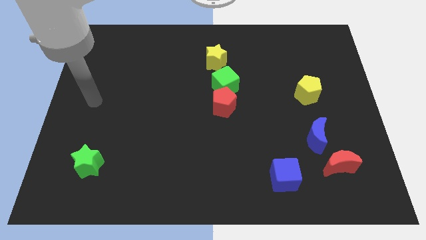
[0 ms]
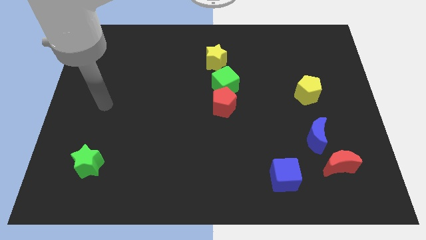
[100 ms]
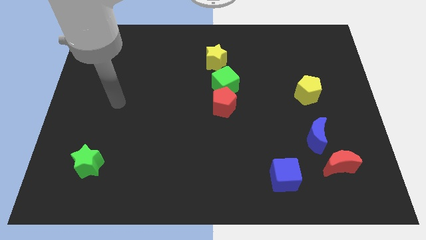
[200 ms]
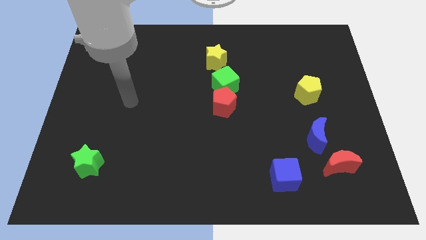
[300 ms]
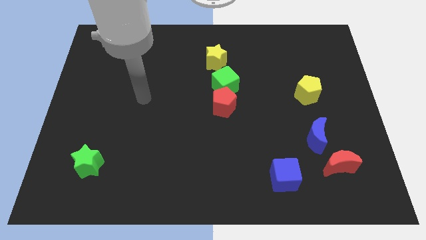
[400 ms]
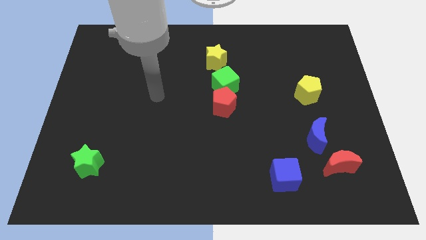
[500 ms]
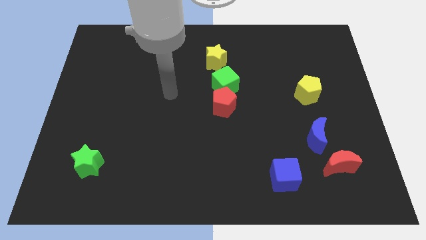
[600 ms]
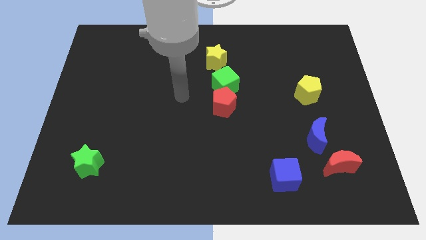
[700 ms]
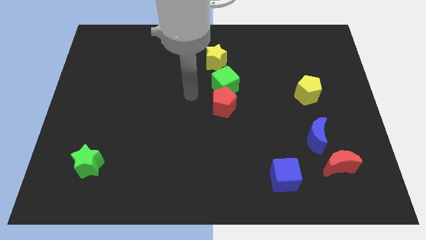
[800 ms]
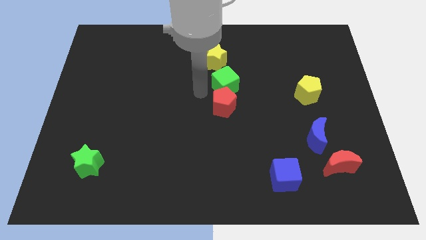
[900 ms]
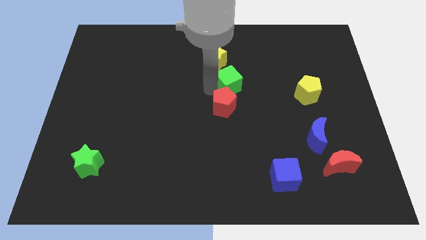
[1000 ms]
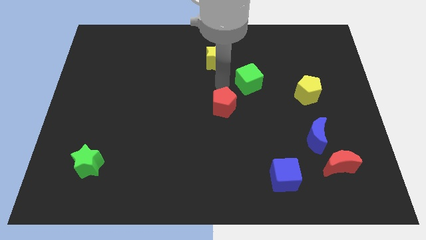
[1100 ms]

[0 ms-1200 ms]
pull the red pentagon apart from the green cube

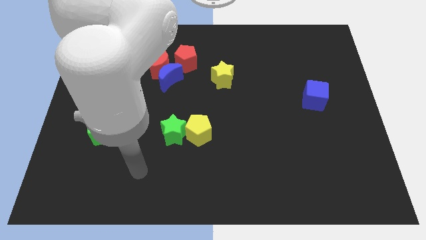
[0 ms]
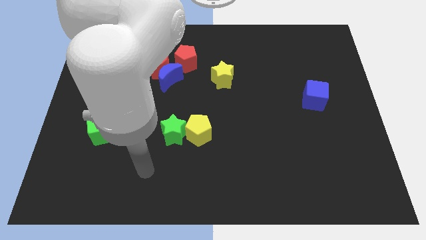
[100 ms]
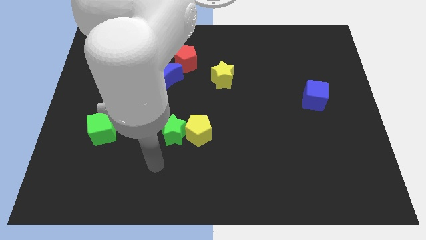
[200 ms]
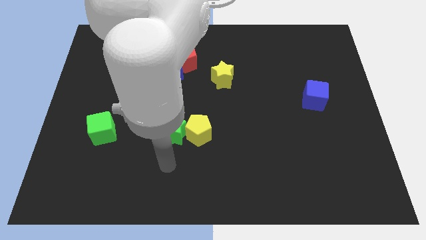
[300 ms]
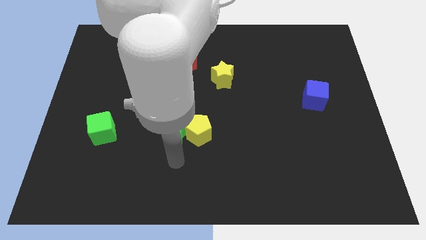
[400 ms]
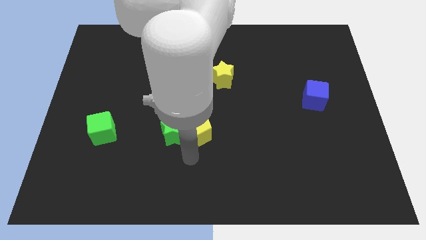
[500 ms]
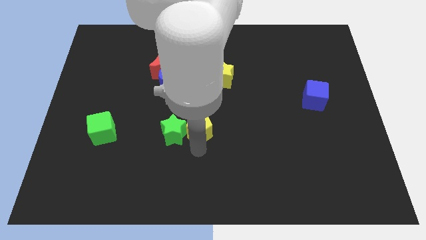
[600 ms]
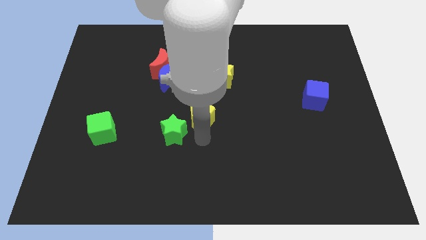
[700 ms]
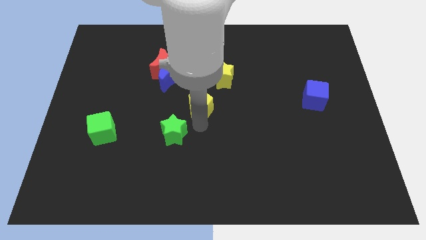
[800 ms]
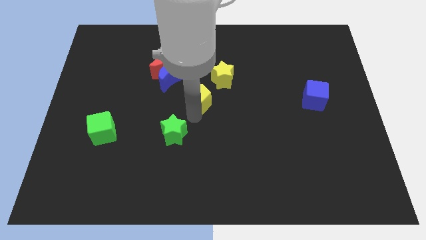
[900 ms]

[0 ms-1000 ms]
separate the green star from the yellow pentagon

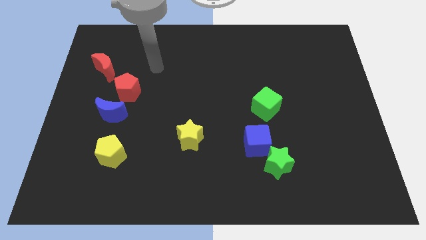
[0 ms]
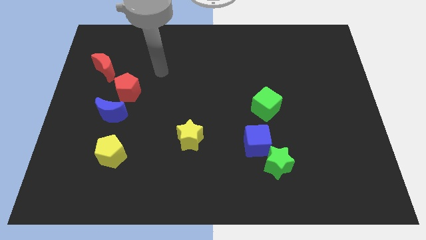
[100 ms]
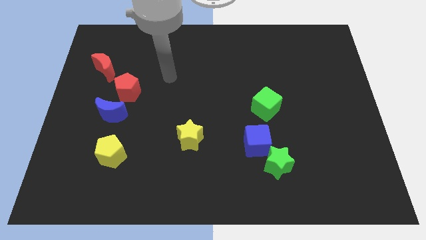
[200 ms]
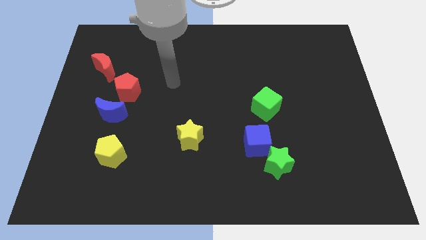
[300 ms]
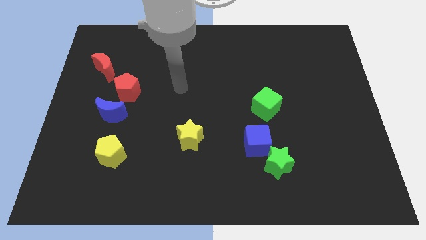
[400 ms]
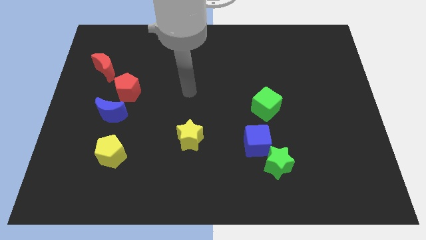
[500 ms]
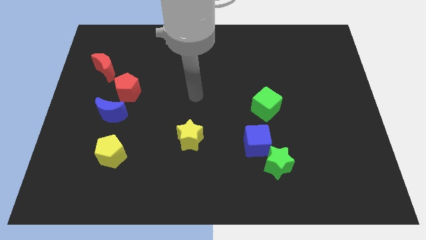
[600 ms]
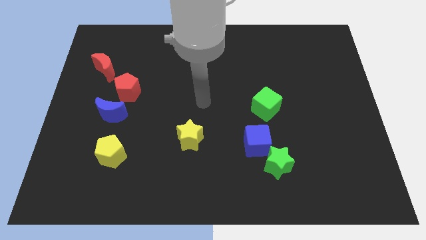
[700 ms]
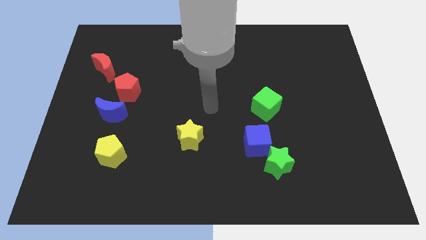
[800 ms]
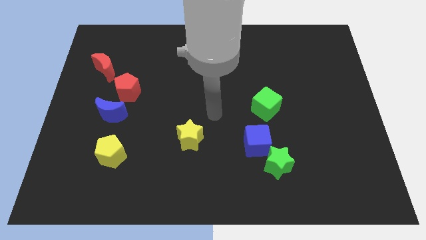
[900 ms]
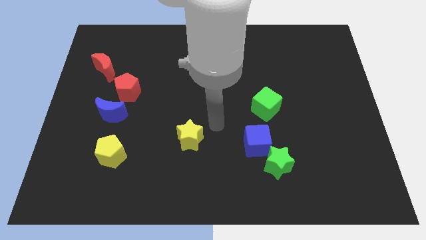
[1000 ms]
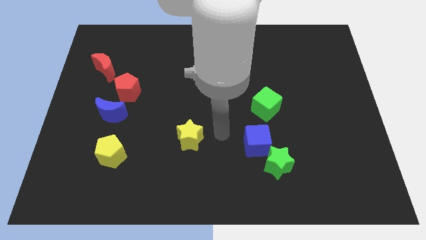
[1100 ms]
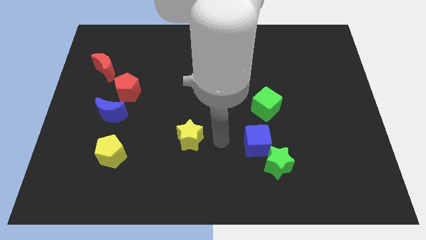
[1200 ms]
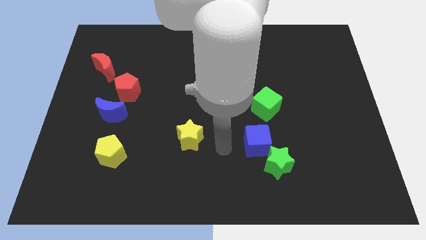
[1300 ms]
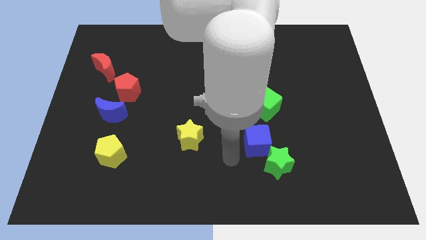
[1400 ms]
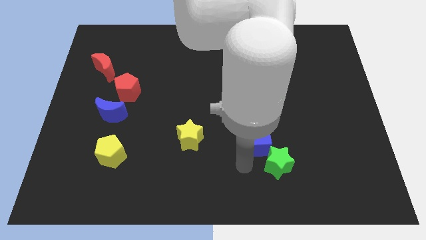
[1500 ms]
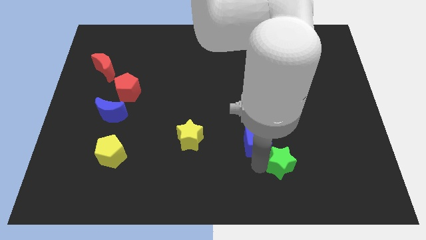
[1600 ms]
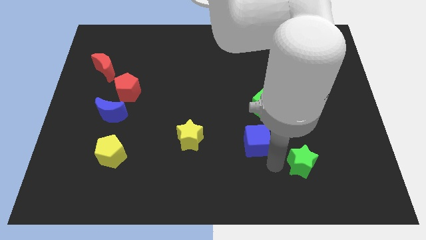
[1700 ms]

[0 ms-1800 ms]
pull the blue cube apart from the green star

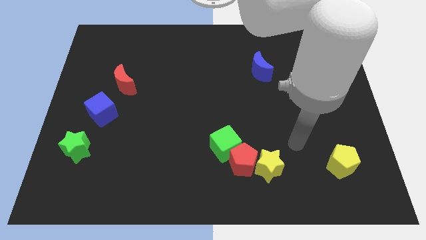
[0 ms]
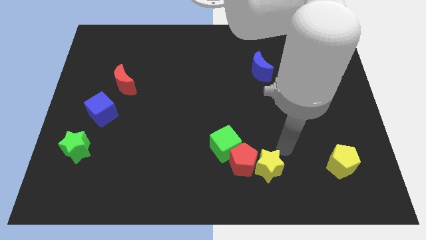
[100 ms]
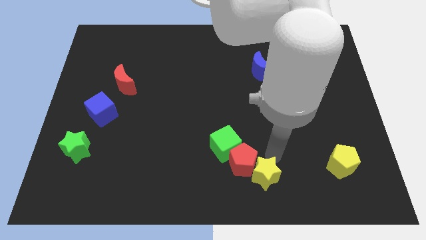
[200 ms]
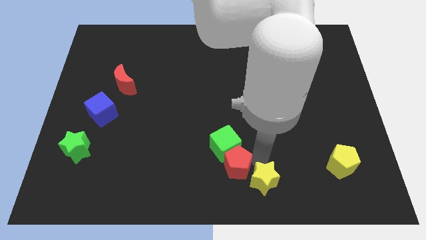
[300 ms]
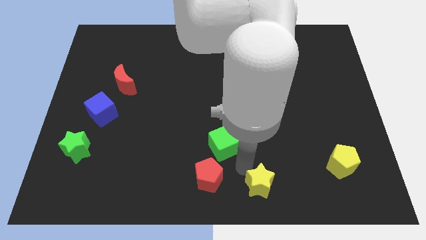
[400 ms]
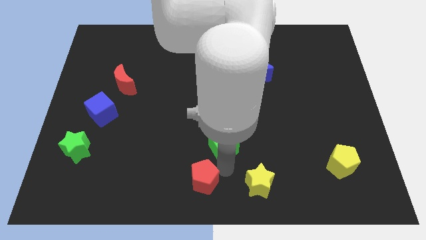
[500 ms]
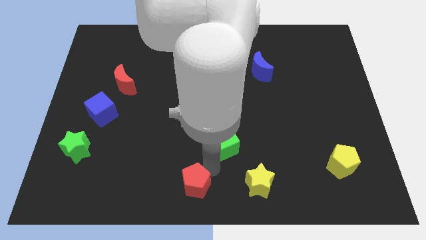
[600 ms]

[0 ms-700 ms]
pull the green cube apart from the red pentagon

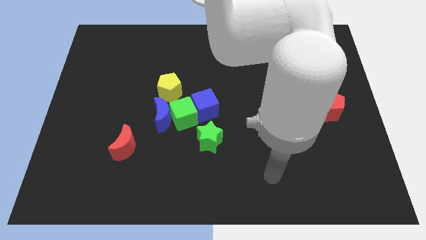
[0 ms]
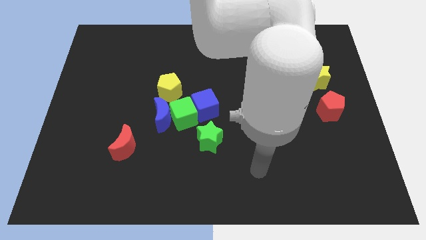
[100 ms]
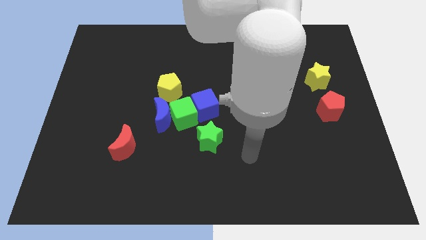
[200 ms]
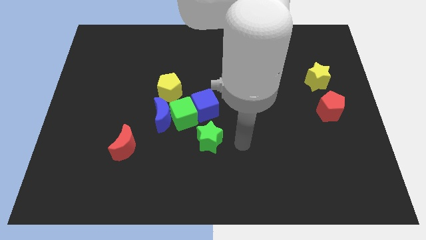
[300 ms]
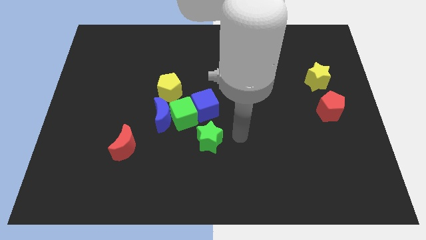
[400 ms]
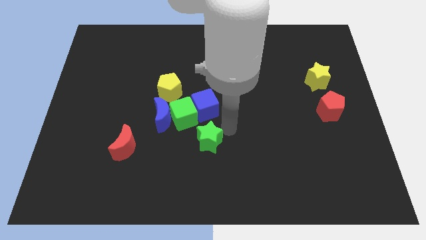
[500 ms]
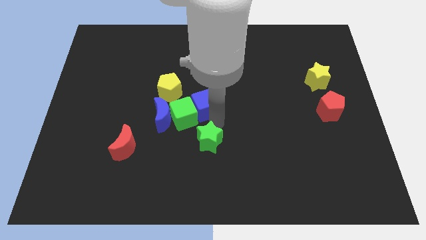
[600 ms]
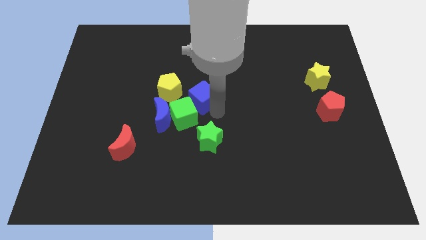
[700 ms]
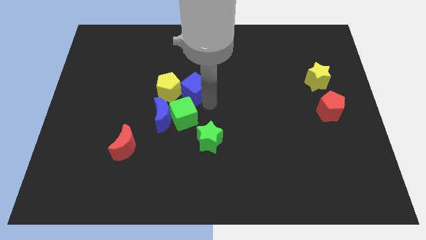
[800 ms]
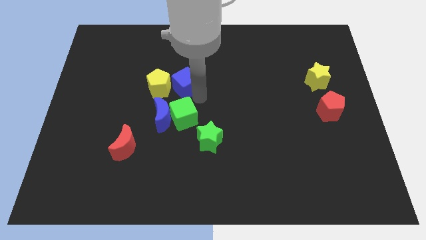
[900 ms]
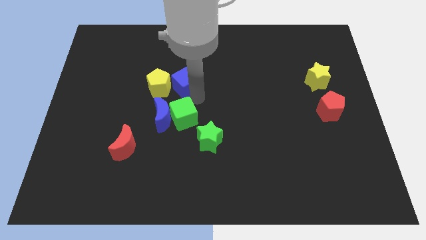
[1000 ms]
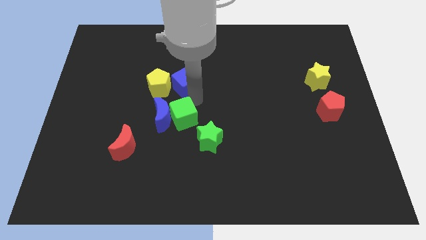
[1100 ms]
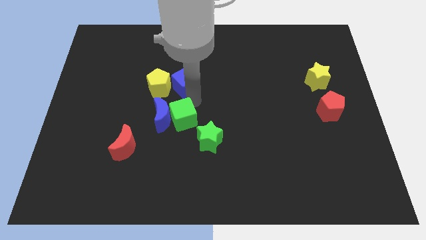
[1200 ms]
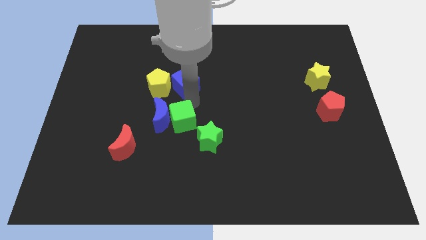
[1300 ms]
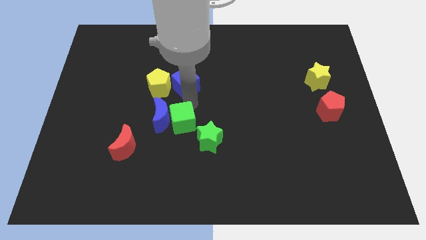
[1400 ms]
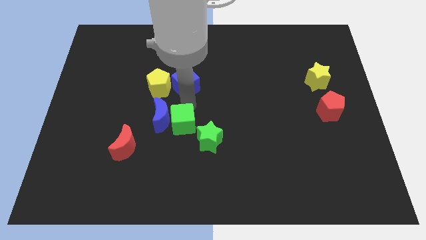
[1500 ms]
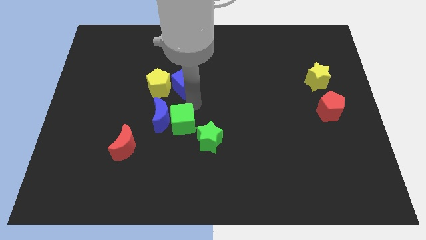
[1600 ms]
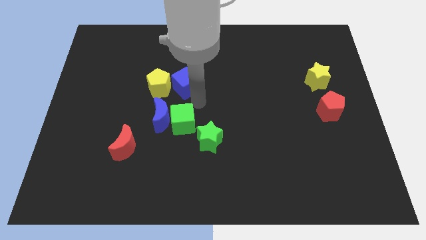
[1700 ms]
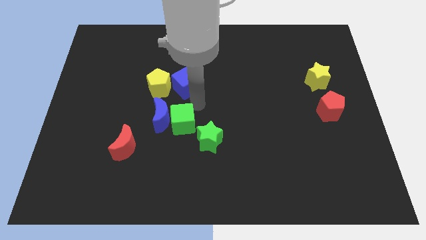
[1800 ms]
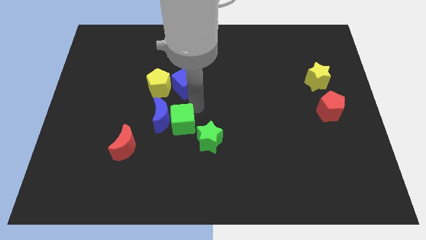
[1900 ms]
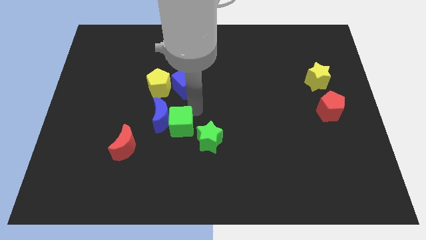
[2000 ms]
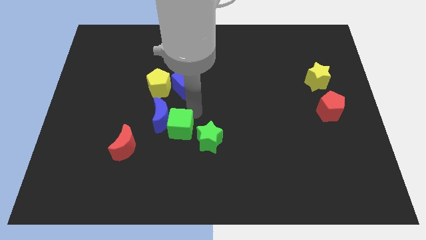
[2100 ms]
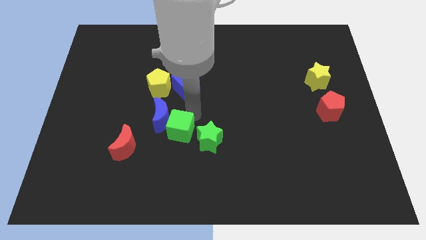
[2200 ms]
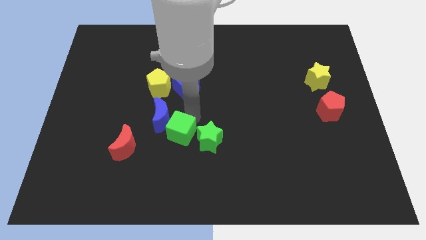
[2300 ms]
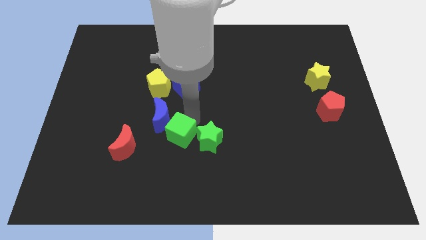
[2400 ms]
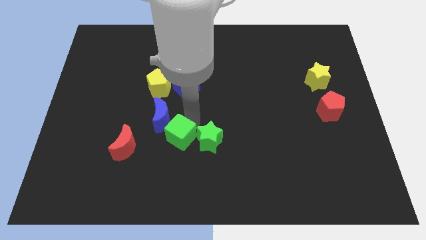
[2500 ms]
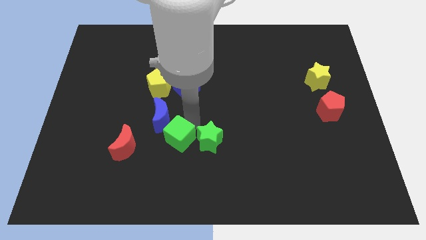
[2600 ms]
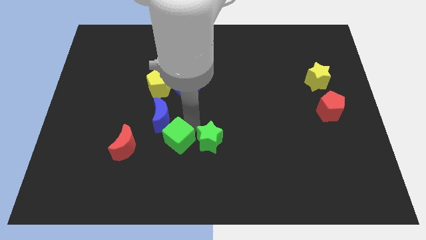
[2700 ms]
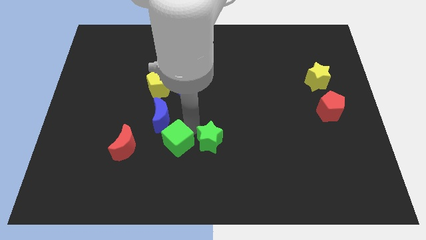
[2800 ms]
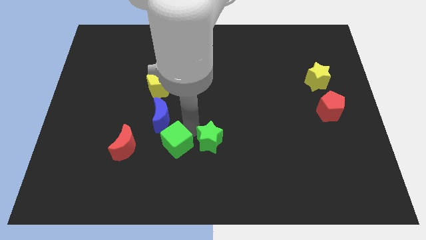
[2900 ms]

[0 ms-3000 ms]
pull the green cube apart from the group

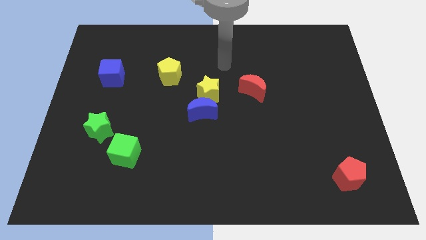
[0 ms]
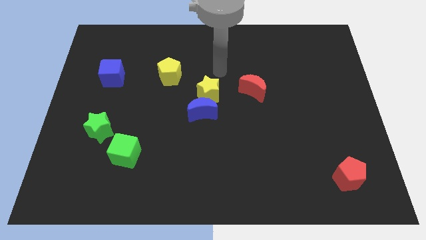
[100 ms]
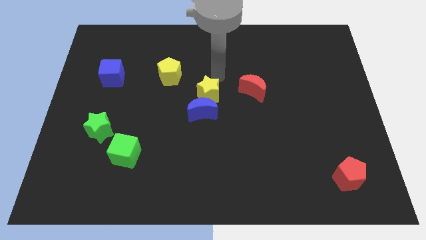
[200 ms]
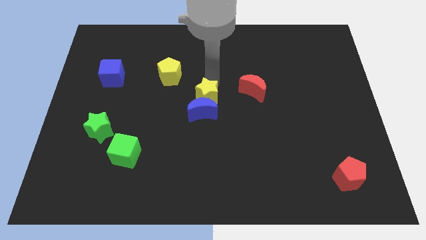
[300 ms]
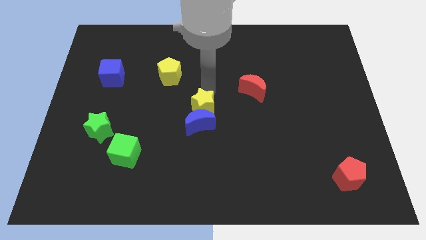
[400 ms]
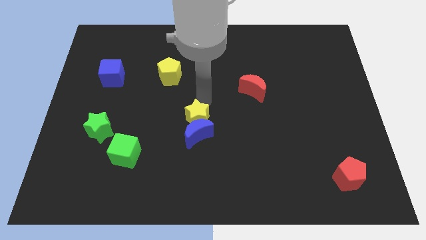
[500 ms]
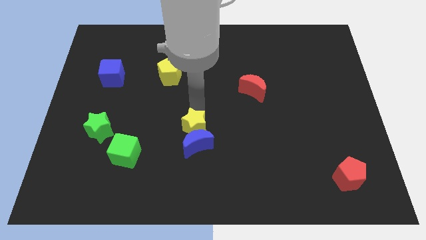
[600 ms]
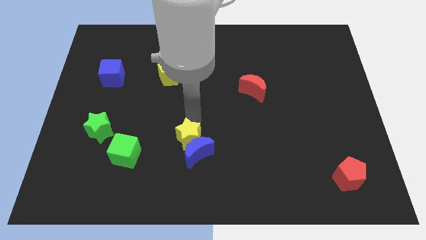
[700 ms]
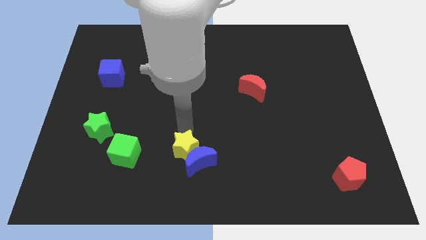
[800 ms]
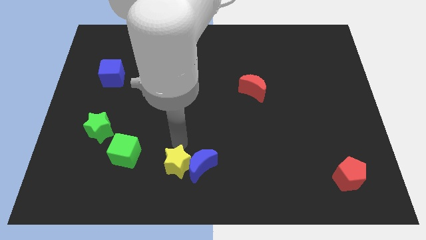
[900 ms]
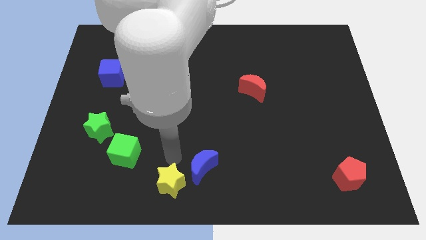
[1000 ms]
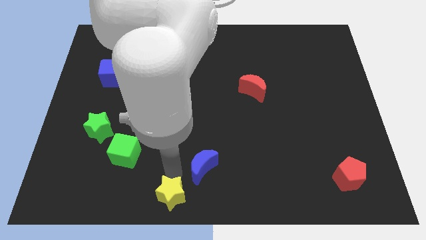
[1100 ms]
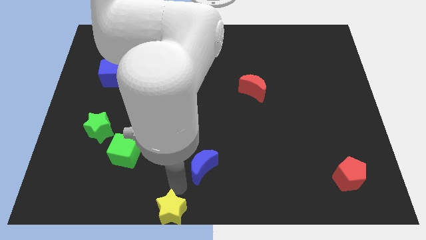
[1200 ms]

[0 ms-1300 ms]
move the blue moon away from the yellow star

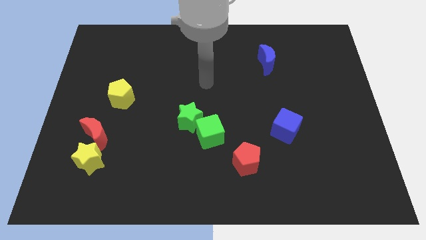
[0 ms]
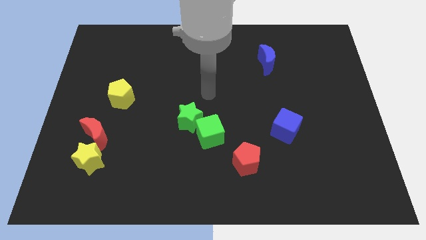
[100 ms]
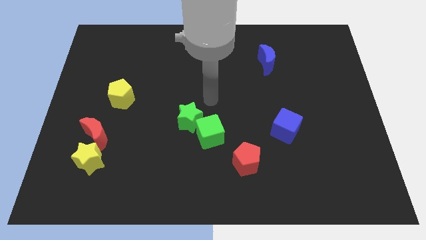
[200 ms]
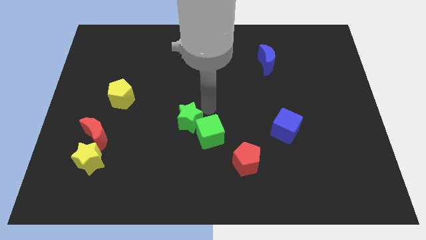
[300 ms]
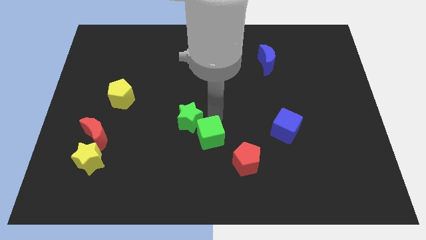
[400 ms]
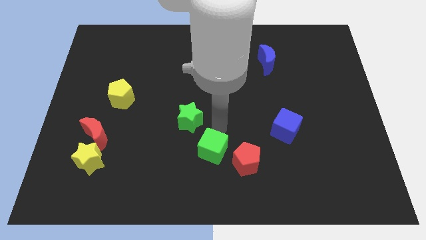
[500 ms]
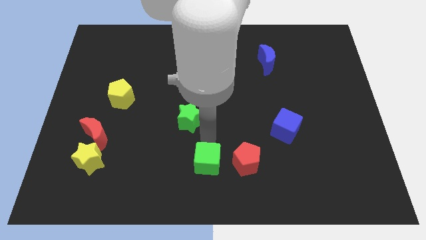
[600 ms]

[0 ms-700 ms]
separate the green star from the green cube
